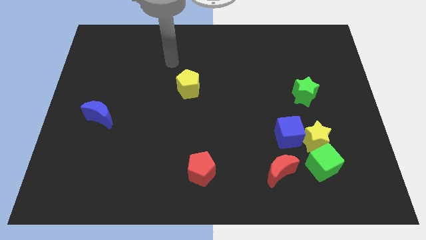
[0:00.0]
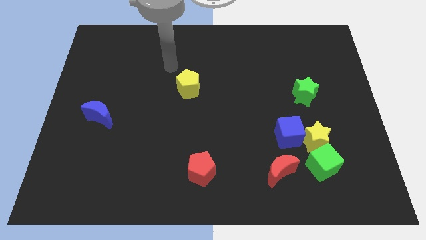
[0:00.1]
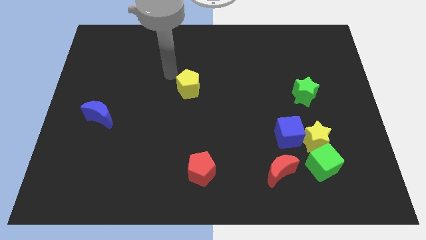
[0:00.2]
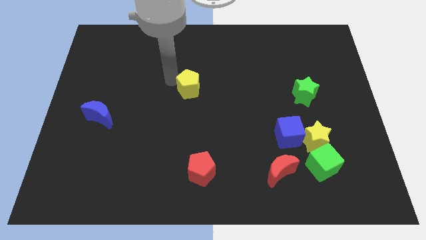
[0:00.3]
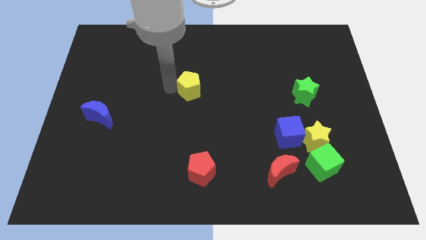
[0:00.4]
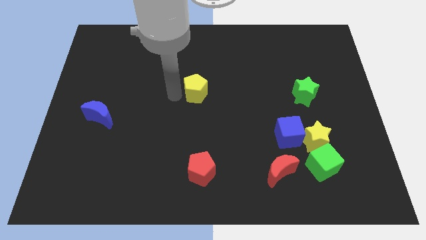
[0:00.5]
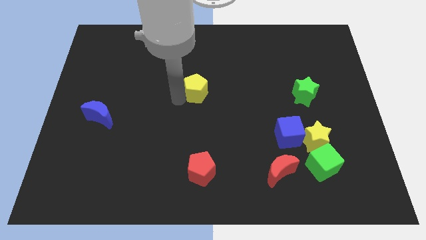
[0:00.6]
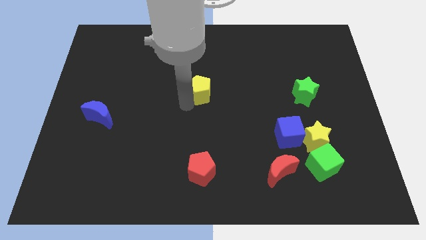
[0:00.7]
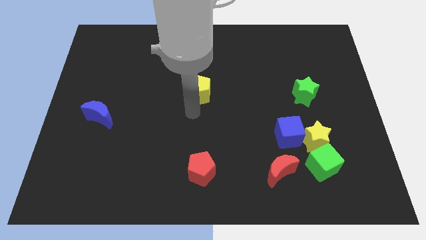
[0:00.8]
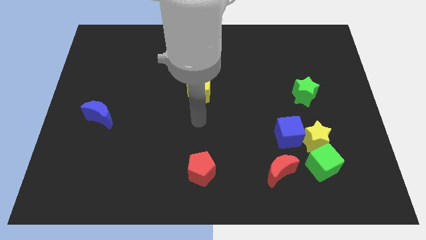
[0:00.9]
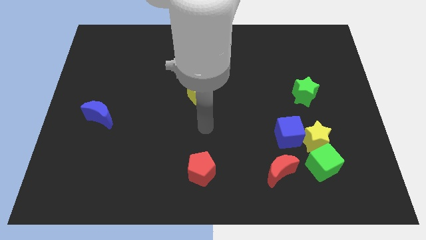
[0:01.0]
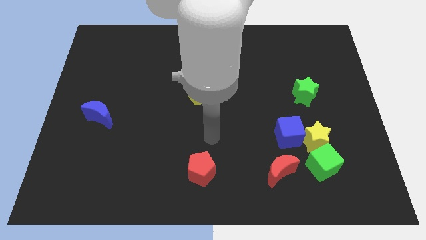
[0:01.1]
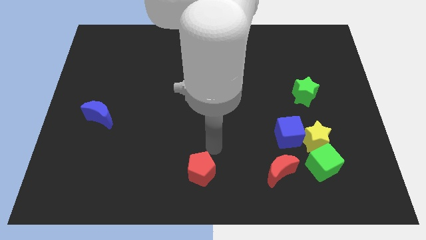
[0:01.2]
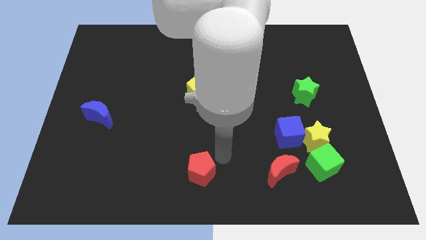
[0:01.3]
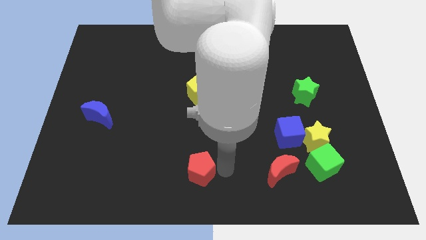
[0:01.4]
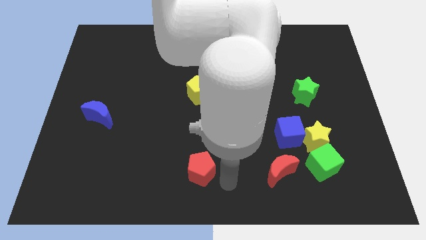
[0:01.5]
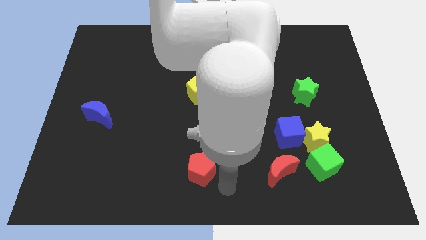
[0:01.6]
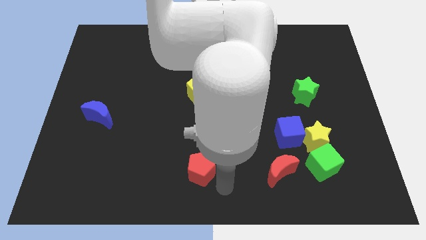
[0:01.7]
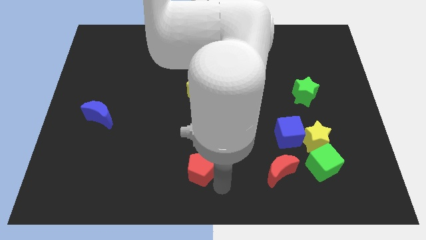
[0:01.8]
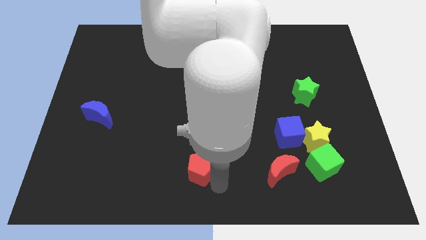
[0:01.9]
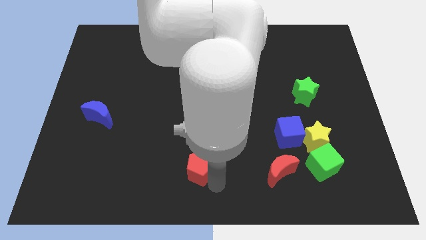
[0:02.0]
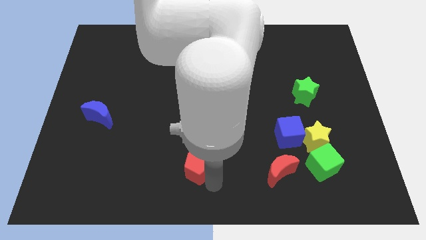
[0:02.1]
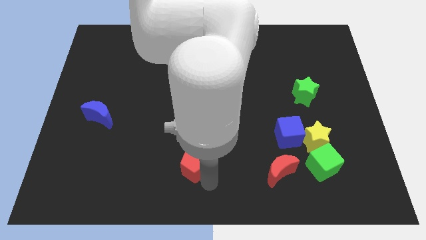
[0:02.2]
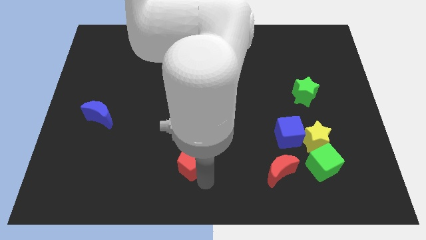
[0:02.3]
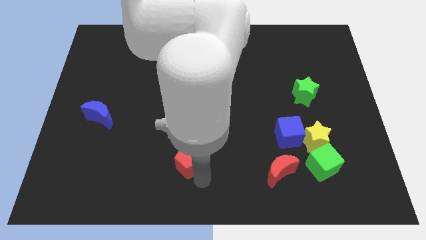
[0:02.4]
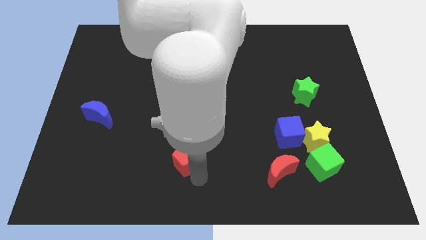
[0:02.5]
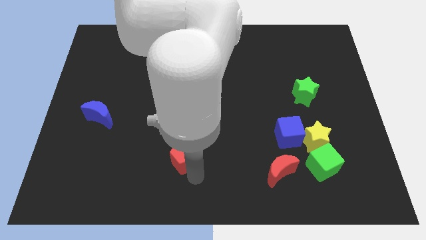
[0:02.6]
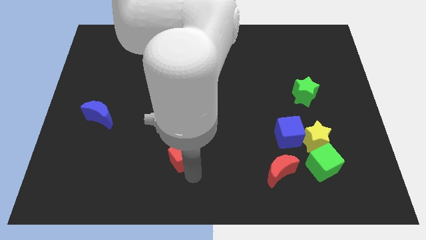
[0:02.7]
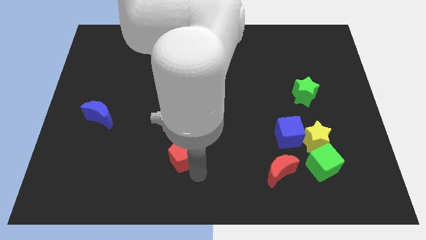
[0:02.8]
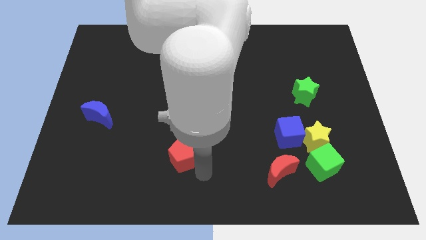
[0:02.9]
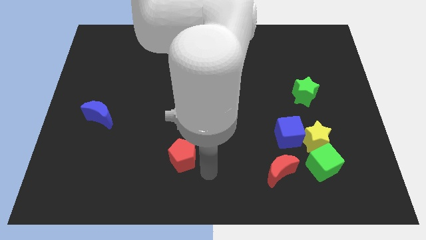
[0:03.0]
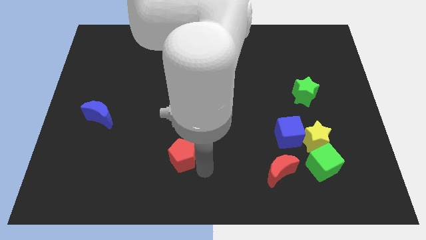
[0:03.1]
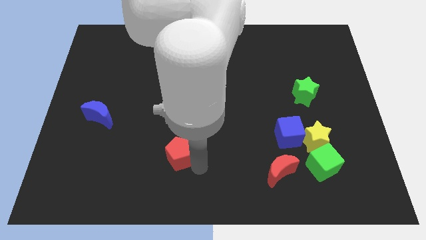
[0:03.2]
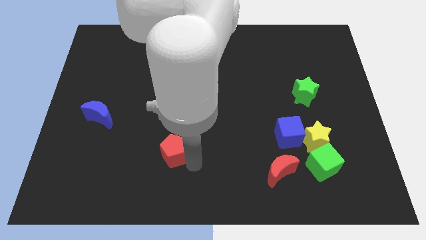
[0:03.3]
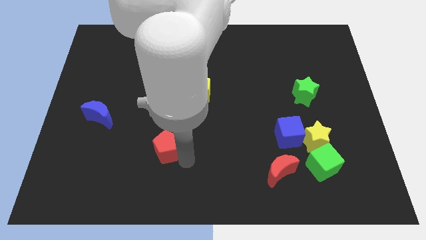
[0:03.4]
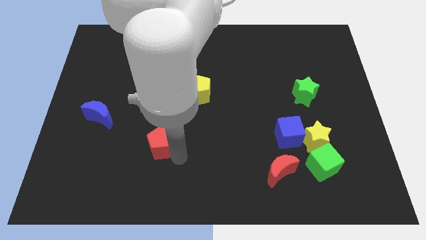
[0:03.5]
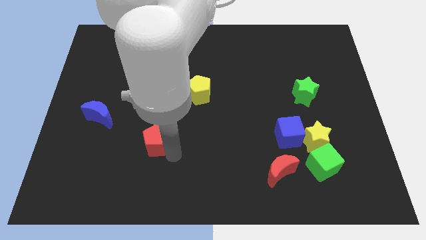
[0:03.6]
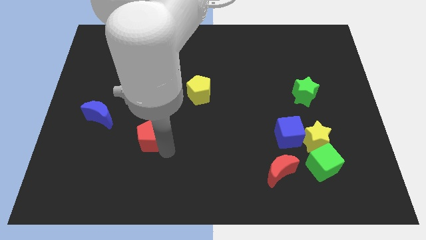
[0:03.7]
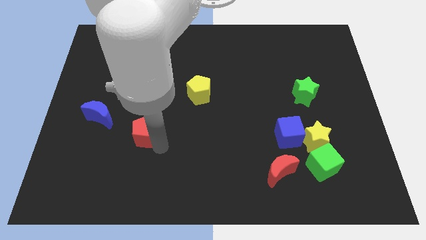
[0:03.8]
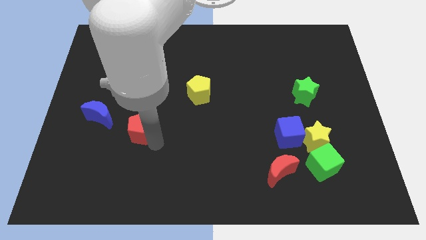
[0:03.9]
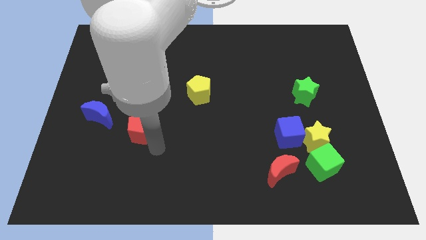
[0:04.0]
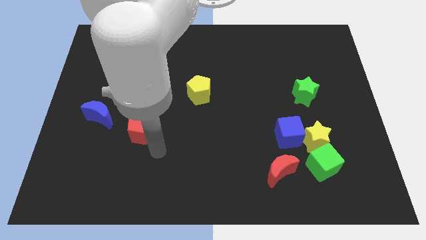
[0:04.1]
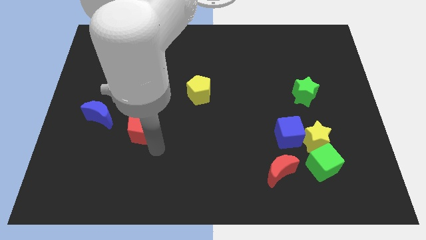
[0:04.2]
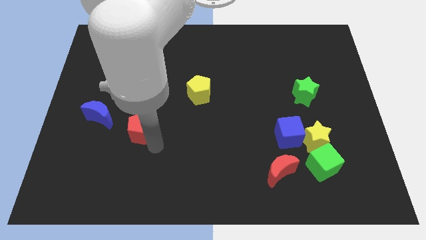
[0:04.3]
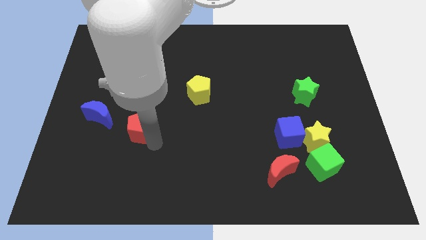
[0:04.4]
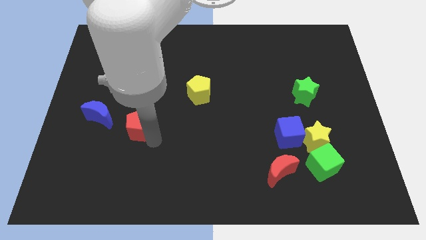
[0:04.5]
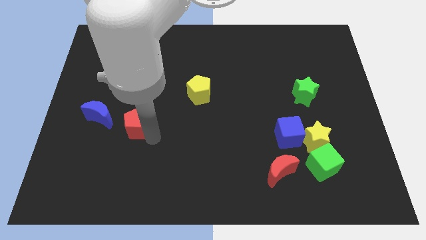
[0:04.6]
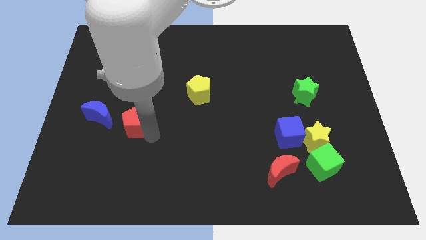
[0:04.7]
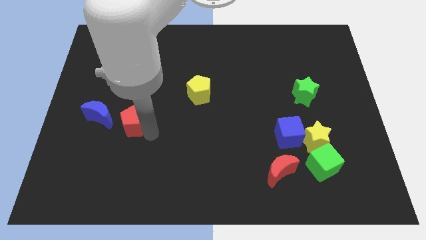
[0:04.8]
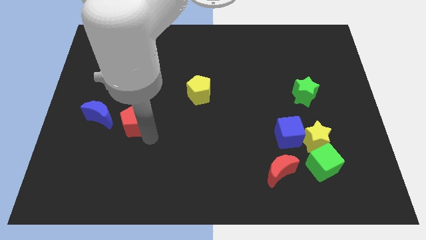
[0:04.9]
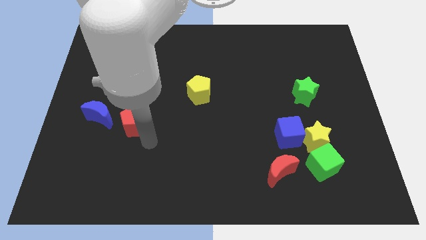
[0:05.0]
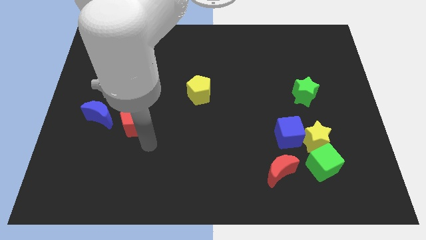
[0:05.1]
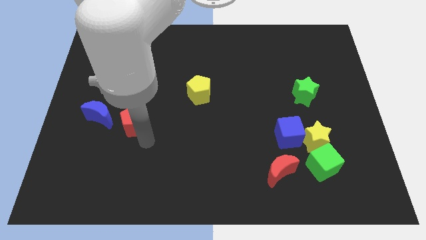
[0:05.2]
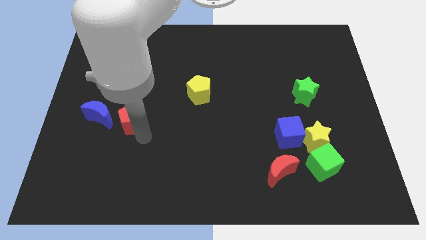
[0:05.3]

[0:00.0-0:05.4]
slide the red pentagon upwards and then to the left

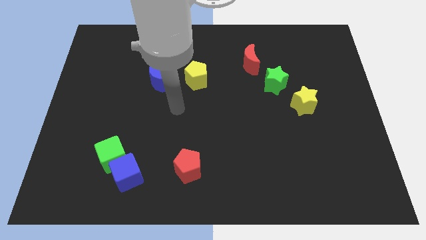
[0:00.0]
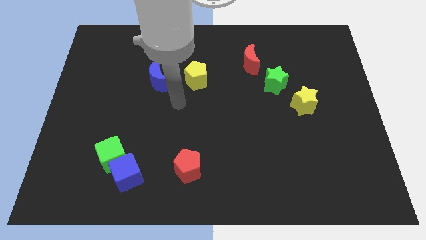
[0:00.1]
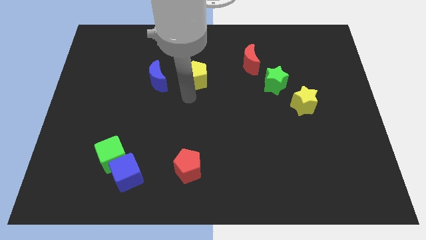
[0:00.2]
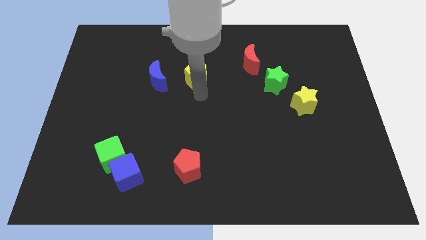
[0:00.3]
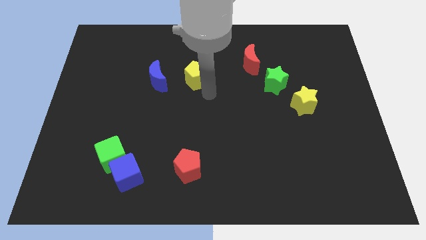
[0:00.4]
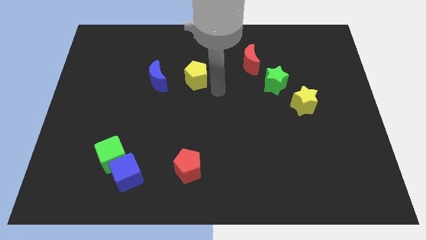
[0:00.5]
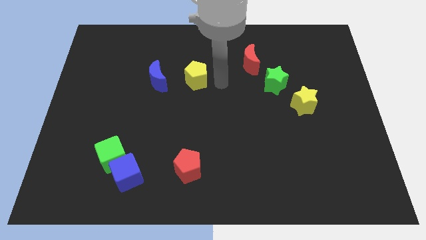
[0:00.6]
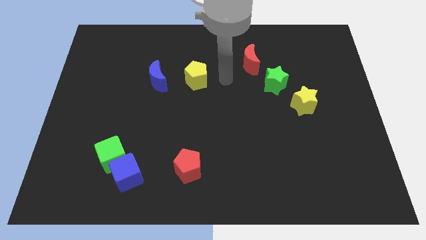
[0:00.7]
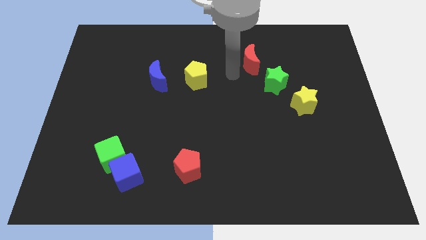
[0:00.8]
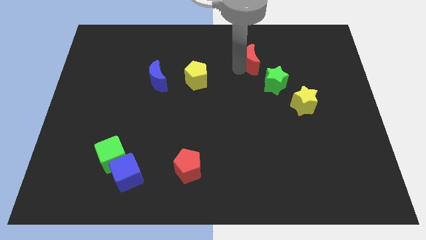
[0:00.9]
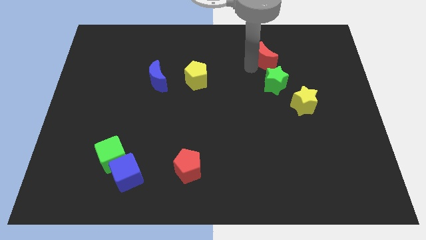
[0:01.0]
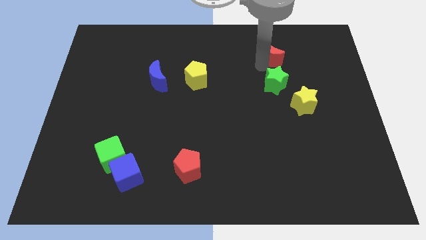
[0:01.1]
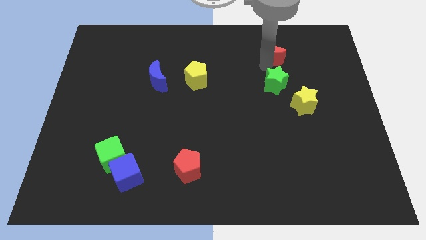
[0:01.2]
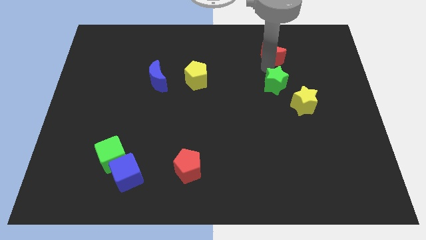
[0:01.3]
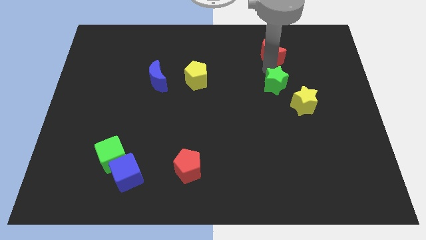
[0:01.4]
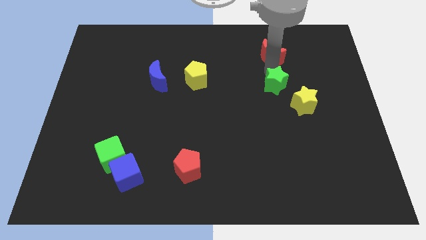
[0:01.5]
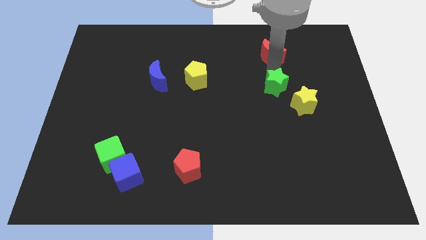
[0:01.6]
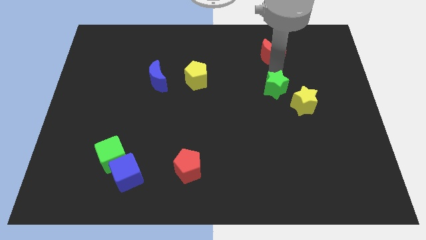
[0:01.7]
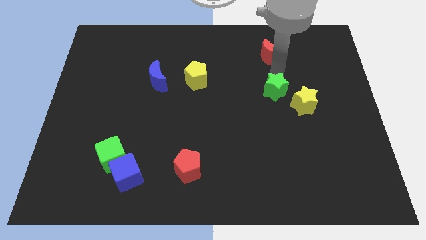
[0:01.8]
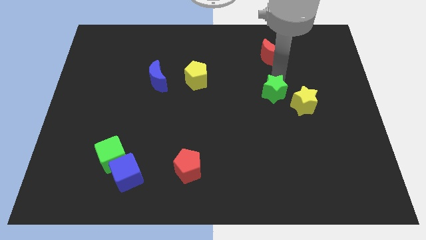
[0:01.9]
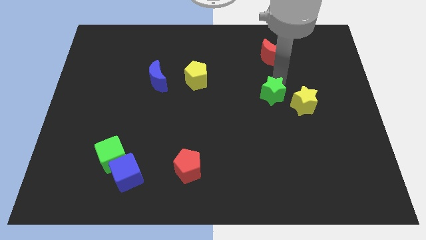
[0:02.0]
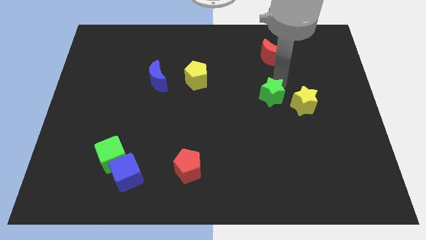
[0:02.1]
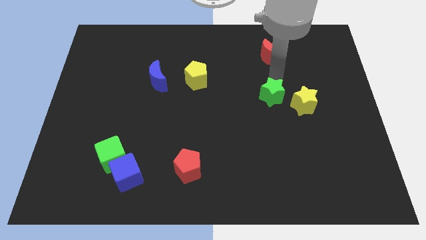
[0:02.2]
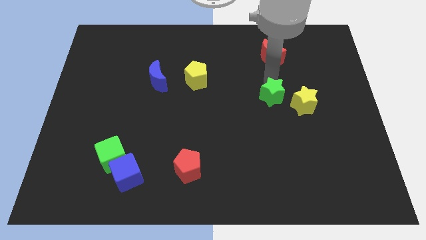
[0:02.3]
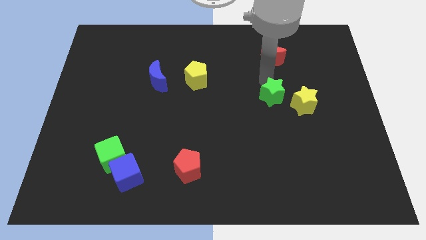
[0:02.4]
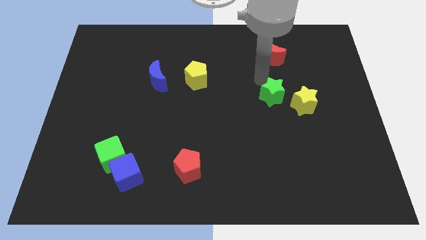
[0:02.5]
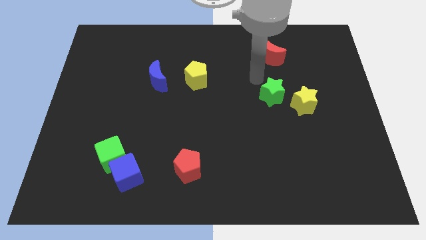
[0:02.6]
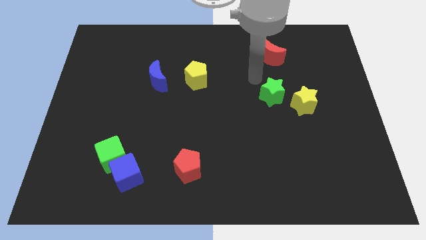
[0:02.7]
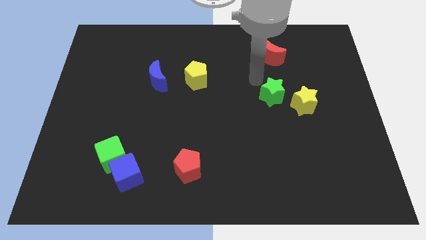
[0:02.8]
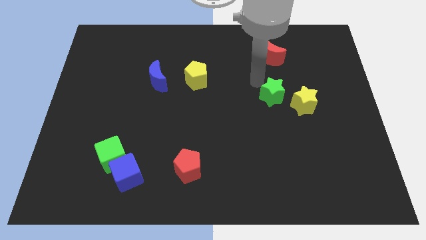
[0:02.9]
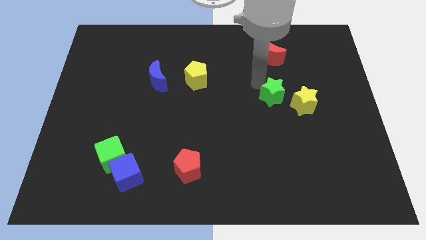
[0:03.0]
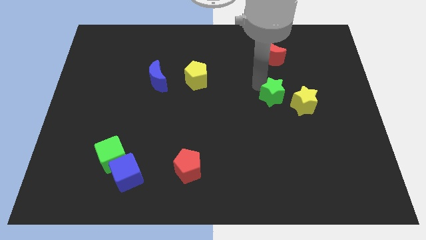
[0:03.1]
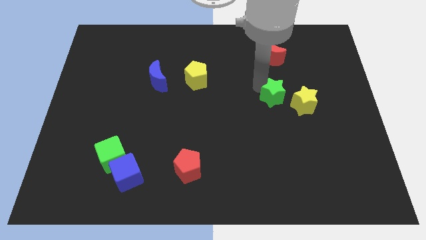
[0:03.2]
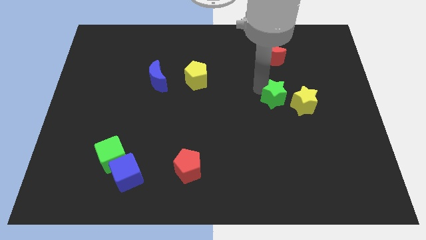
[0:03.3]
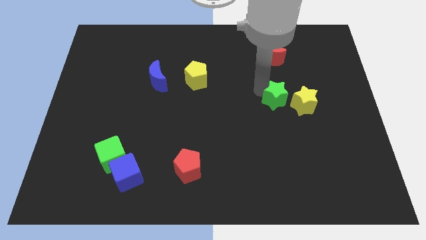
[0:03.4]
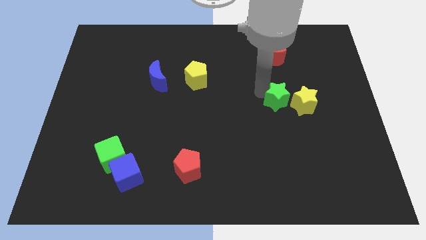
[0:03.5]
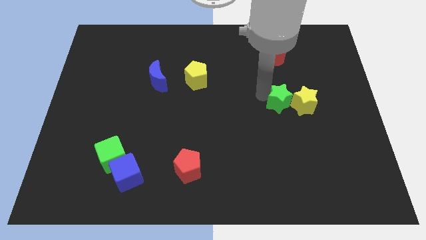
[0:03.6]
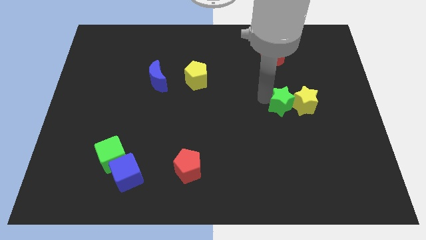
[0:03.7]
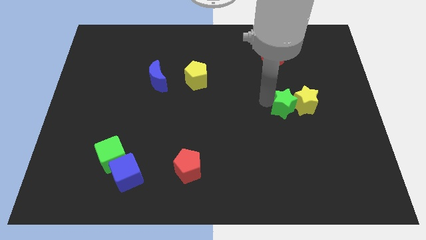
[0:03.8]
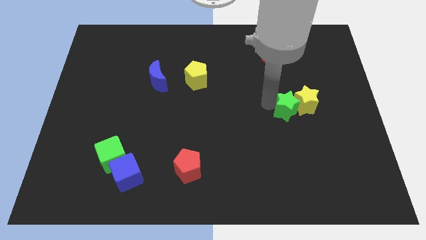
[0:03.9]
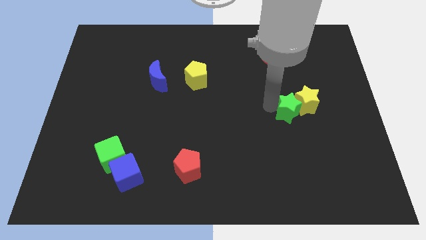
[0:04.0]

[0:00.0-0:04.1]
move the green star slightly downwards and then to the right
